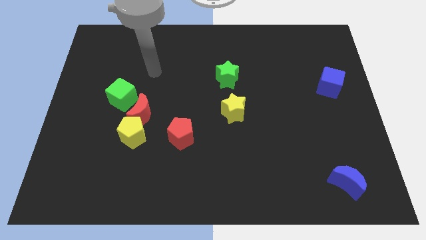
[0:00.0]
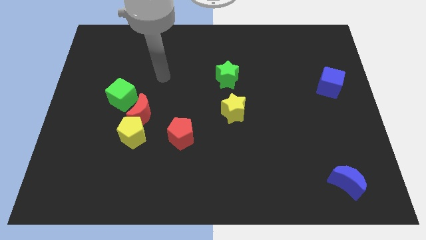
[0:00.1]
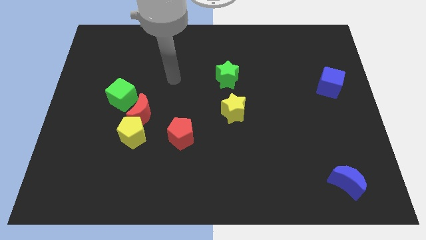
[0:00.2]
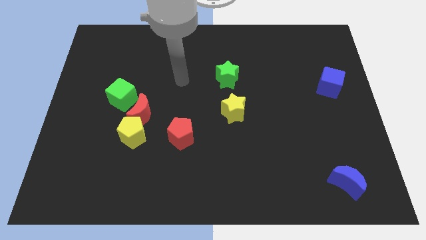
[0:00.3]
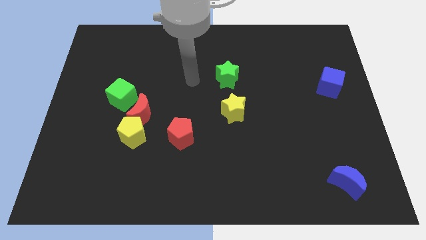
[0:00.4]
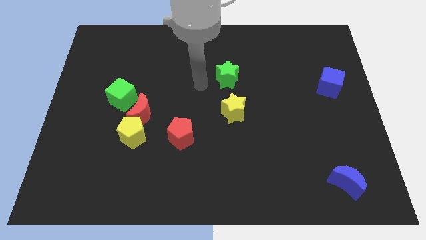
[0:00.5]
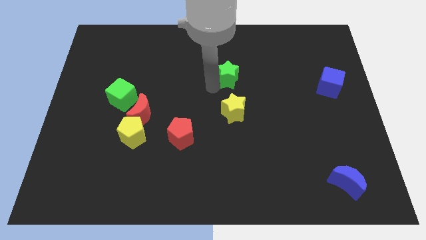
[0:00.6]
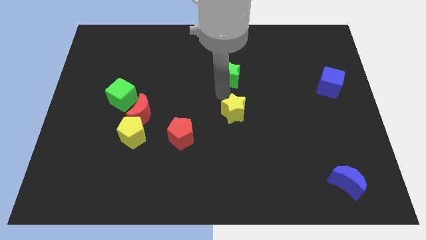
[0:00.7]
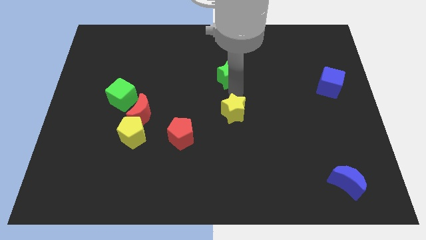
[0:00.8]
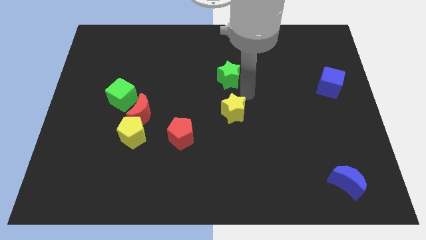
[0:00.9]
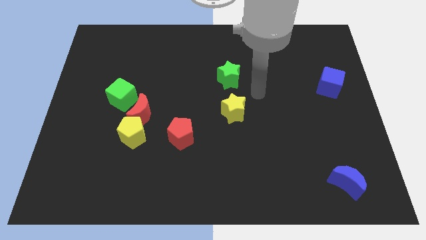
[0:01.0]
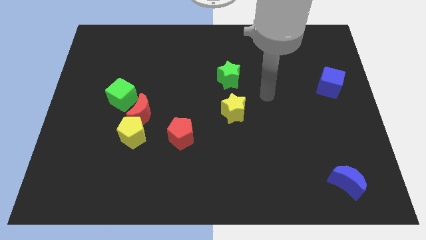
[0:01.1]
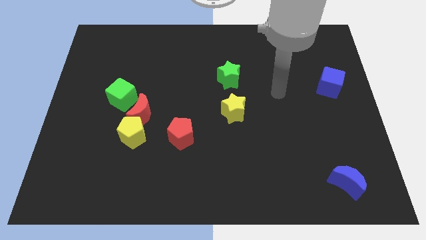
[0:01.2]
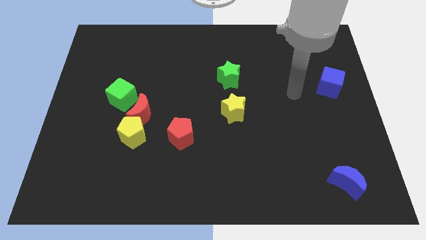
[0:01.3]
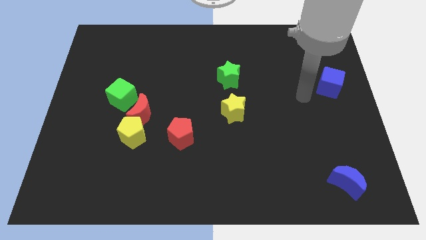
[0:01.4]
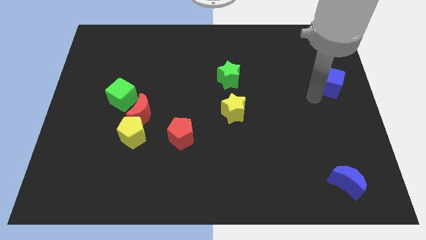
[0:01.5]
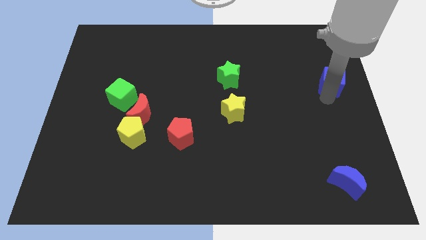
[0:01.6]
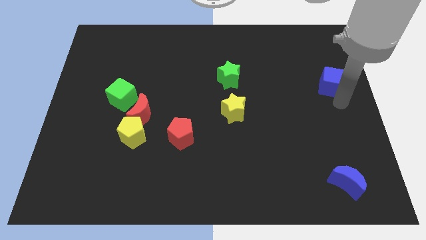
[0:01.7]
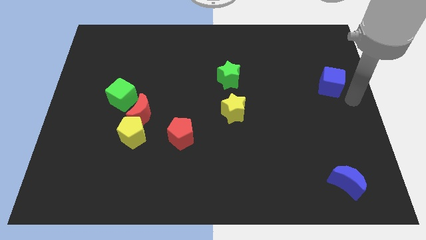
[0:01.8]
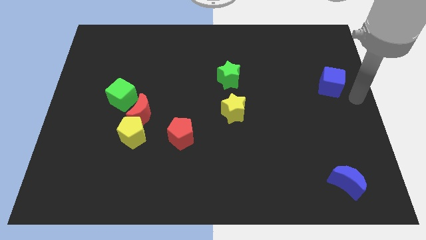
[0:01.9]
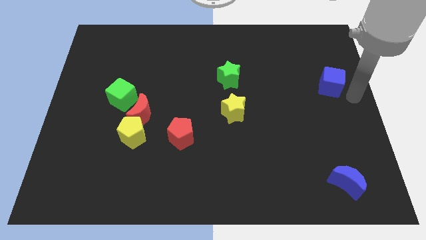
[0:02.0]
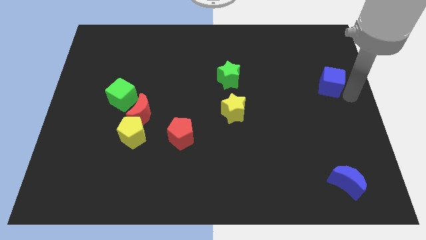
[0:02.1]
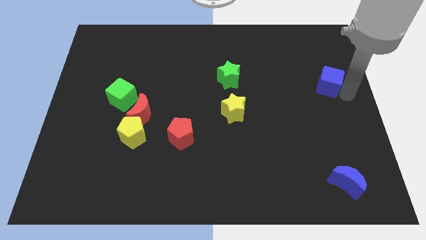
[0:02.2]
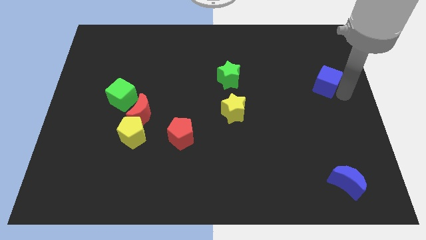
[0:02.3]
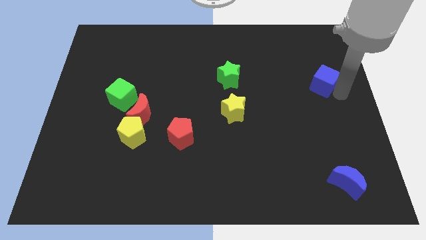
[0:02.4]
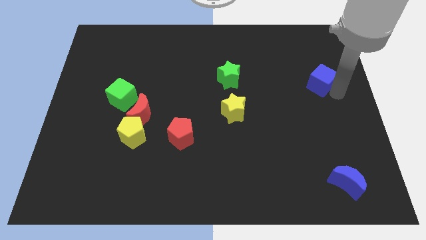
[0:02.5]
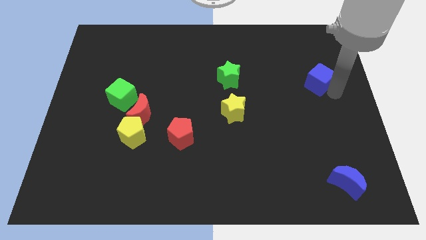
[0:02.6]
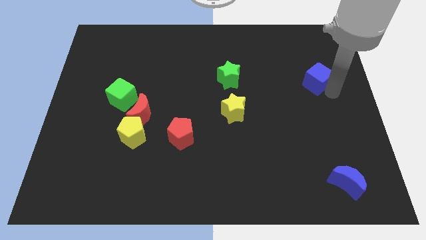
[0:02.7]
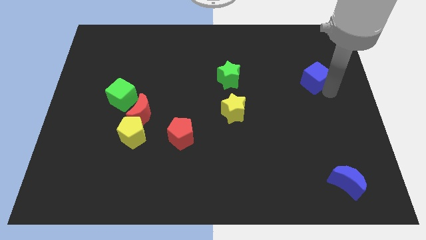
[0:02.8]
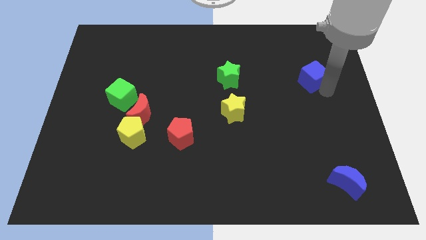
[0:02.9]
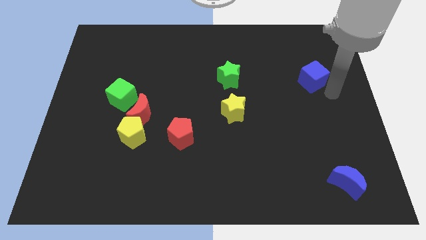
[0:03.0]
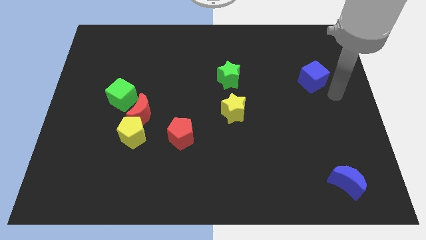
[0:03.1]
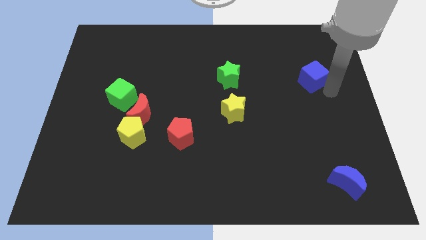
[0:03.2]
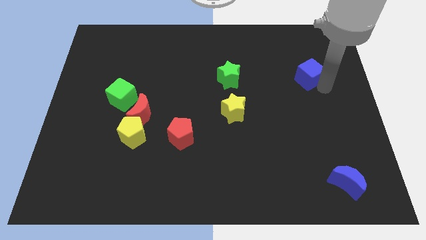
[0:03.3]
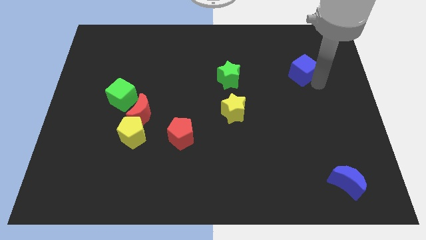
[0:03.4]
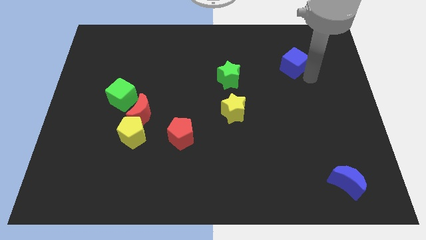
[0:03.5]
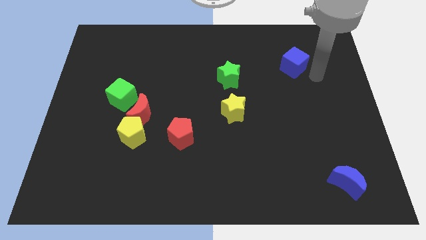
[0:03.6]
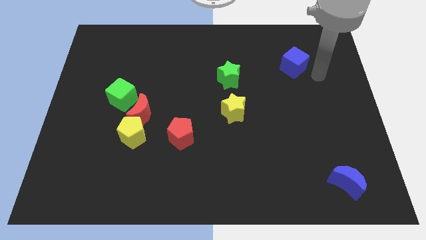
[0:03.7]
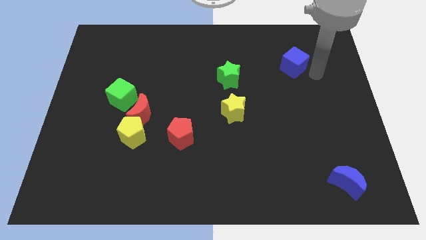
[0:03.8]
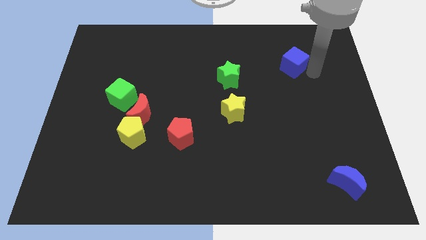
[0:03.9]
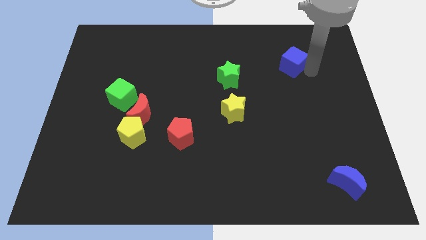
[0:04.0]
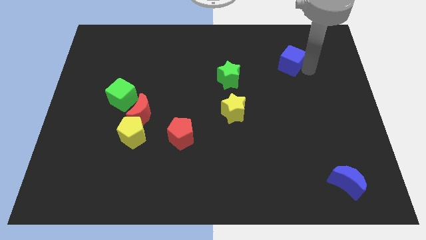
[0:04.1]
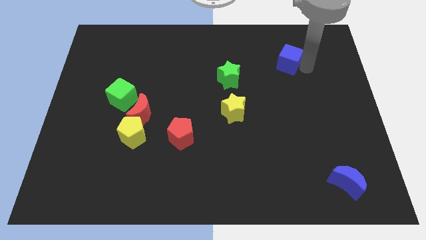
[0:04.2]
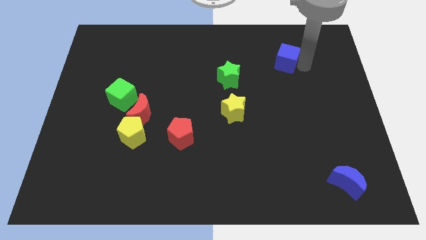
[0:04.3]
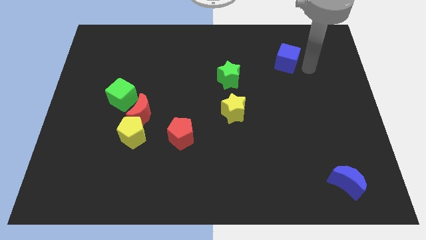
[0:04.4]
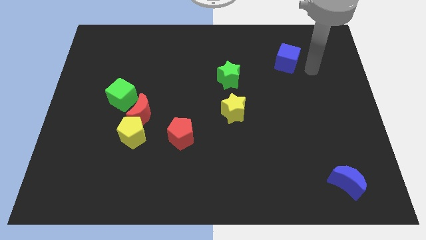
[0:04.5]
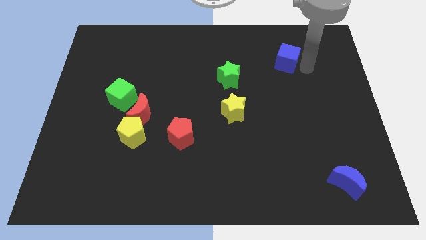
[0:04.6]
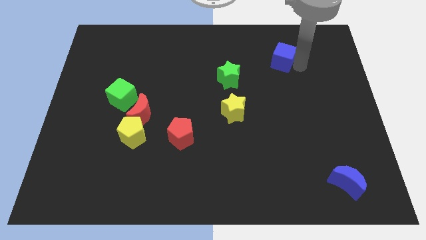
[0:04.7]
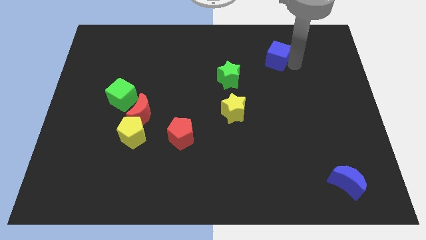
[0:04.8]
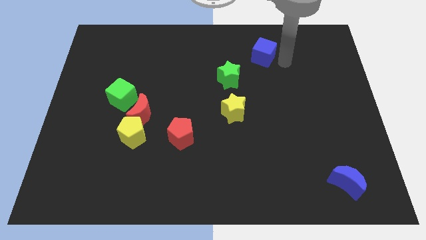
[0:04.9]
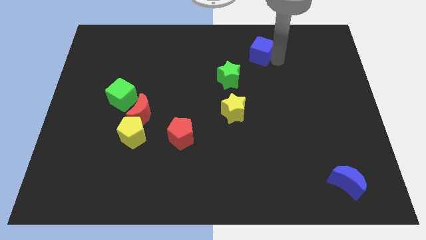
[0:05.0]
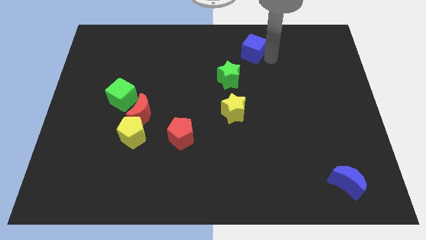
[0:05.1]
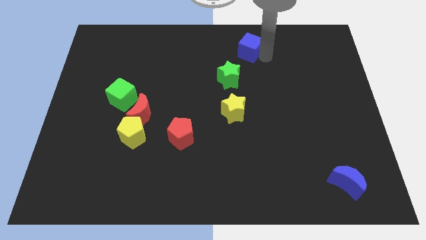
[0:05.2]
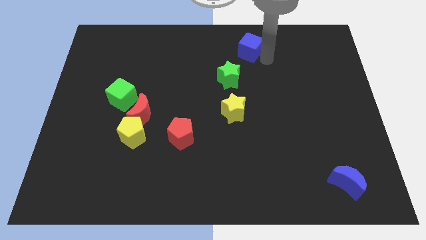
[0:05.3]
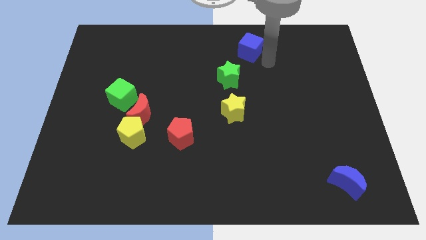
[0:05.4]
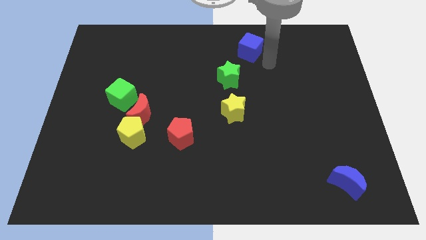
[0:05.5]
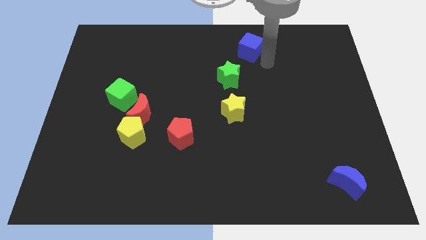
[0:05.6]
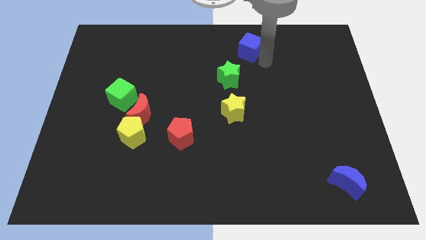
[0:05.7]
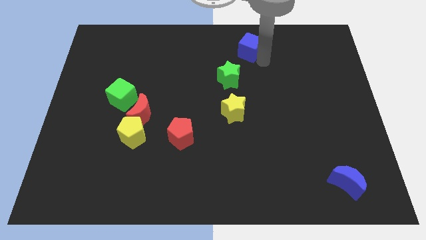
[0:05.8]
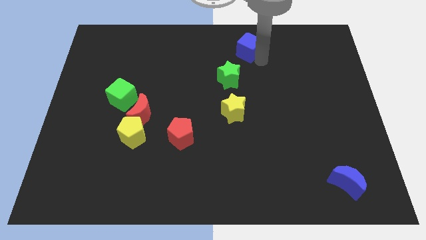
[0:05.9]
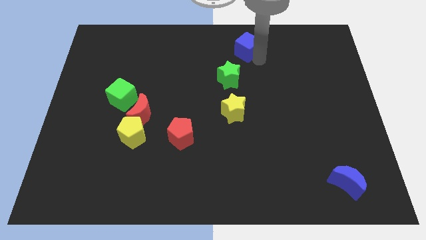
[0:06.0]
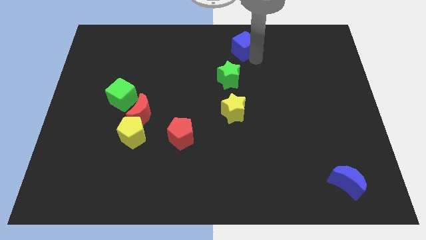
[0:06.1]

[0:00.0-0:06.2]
push the blue cube to the top
